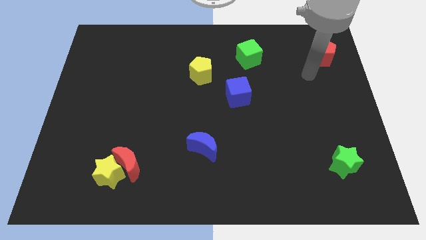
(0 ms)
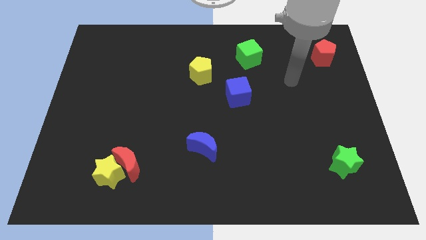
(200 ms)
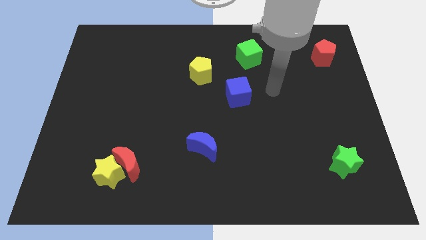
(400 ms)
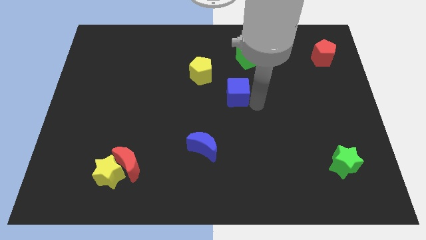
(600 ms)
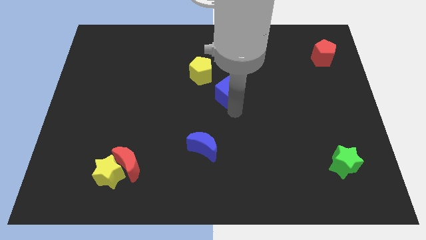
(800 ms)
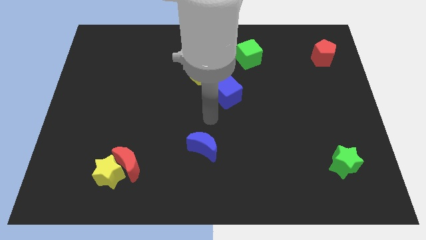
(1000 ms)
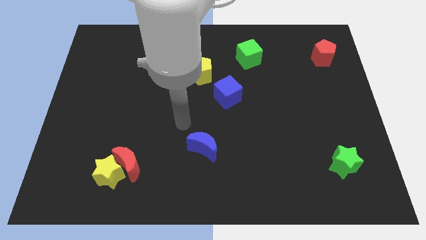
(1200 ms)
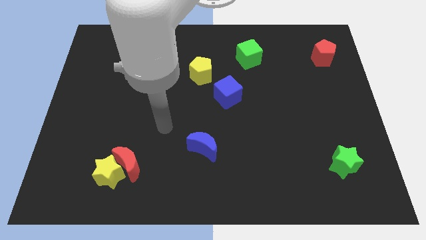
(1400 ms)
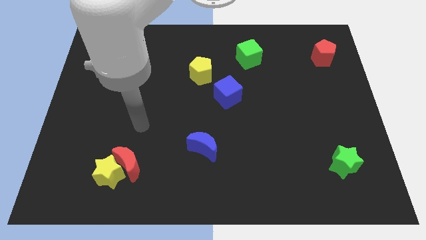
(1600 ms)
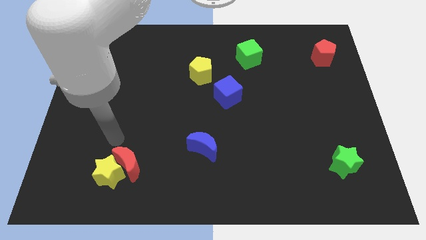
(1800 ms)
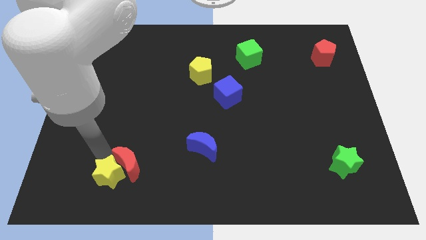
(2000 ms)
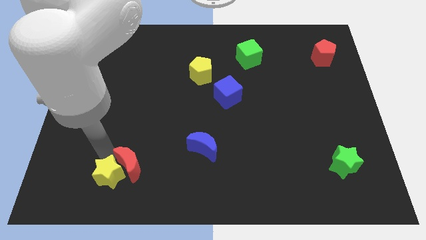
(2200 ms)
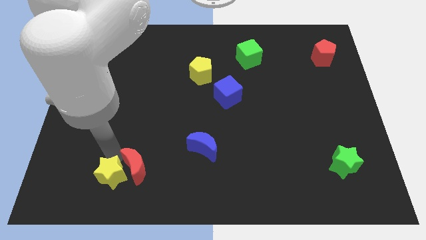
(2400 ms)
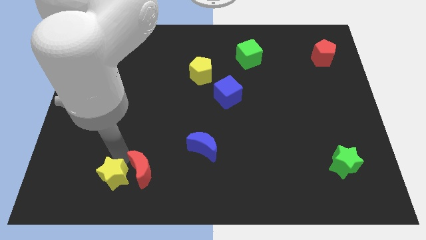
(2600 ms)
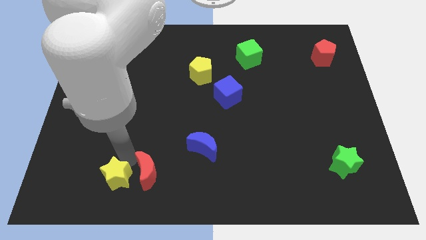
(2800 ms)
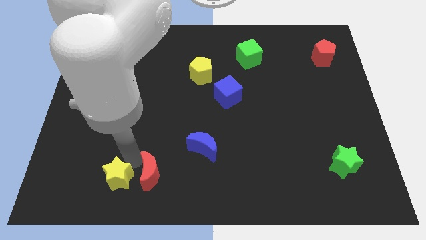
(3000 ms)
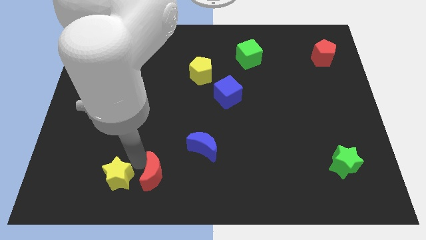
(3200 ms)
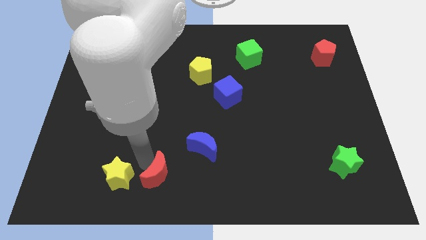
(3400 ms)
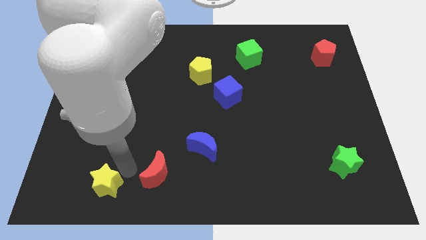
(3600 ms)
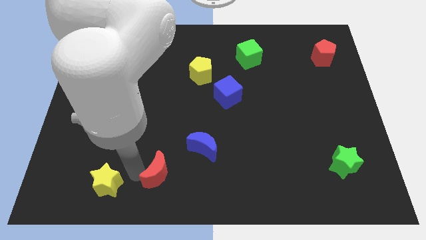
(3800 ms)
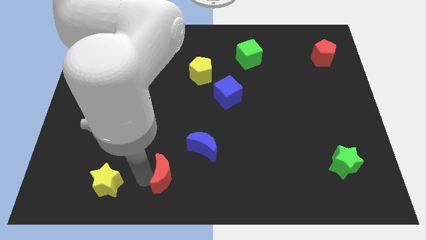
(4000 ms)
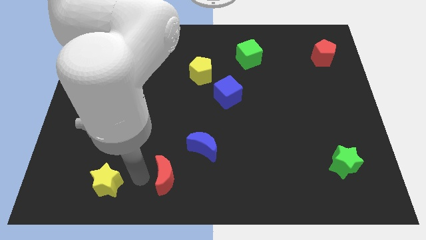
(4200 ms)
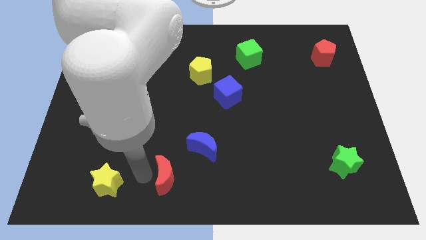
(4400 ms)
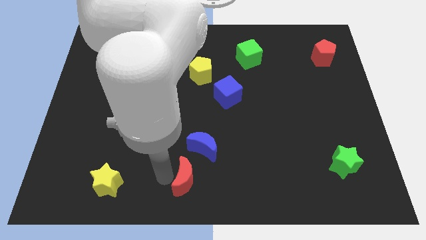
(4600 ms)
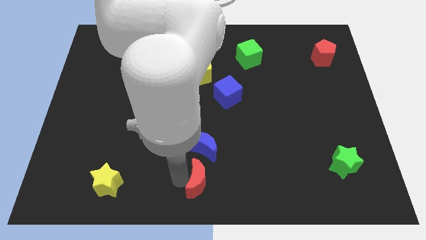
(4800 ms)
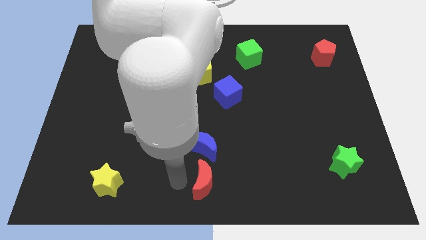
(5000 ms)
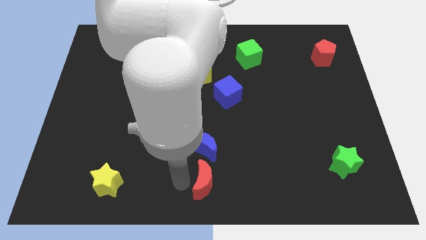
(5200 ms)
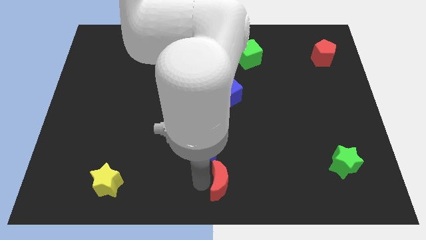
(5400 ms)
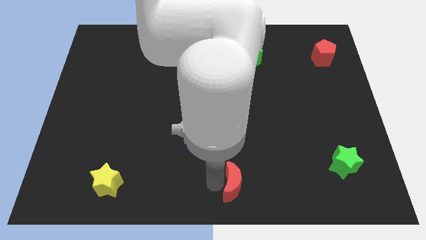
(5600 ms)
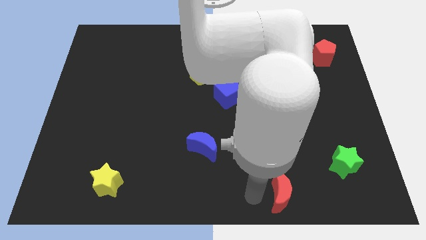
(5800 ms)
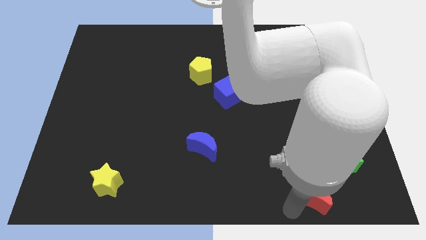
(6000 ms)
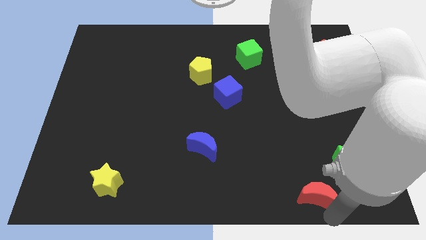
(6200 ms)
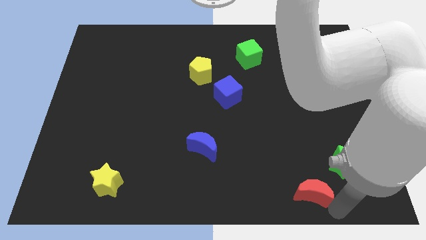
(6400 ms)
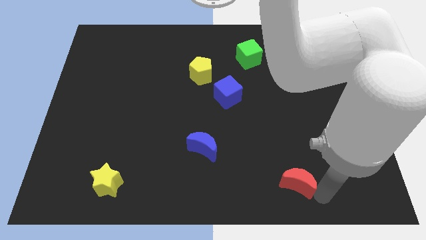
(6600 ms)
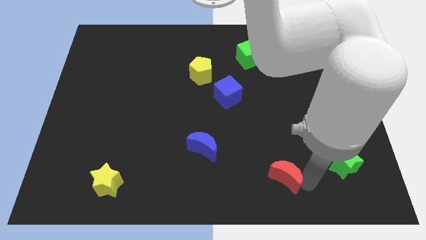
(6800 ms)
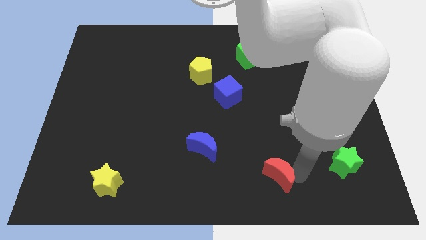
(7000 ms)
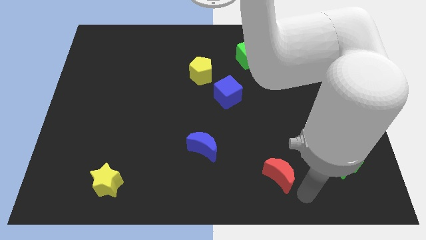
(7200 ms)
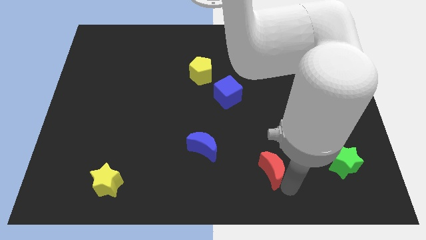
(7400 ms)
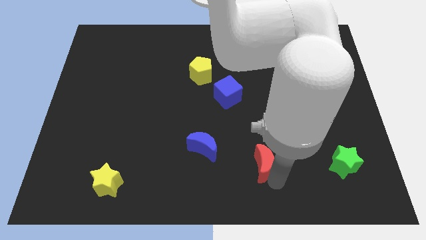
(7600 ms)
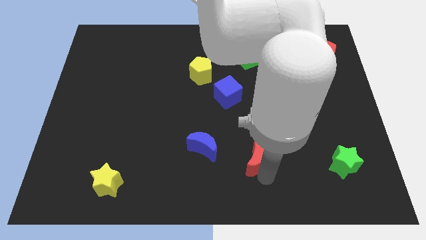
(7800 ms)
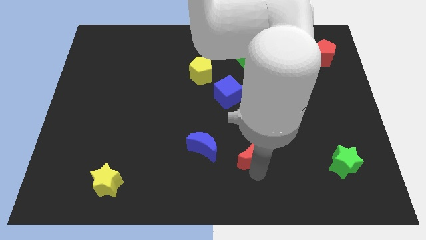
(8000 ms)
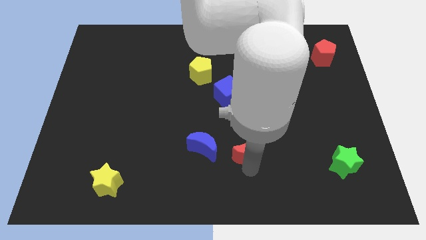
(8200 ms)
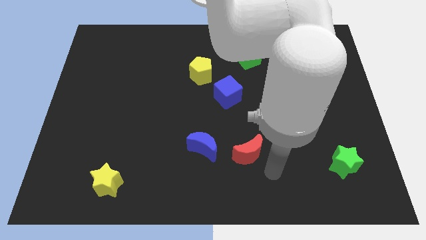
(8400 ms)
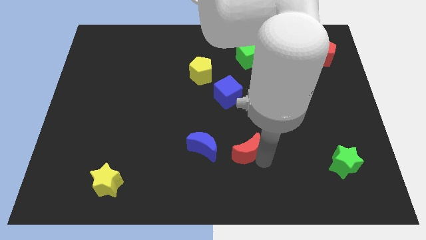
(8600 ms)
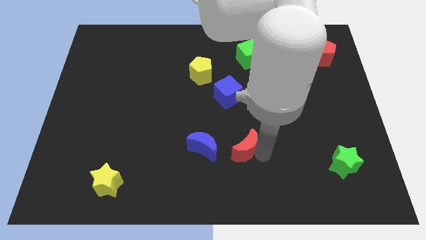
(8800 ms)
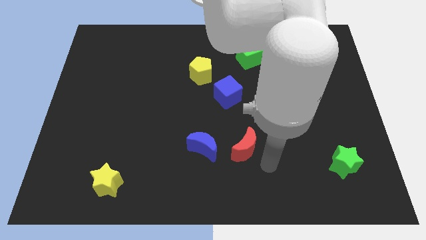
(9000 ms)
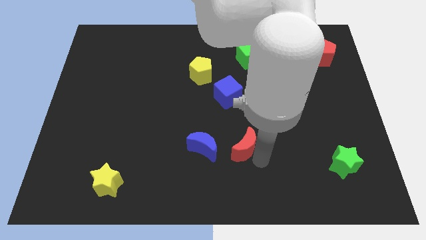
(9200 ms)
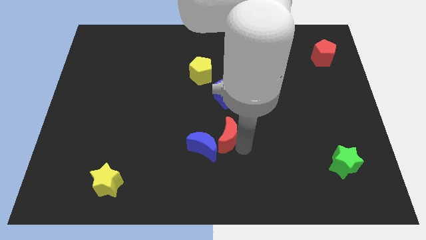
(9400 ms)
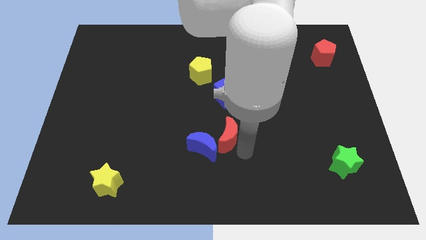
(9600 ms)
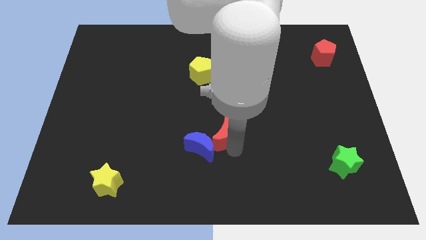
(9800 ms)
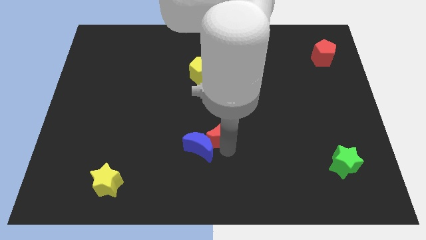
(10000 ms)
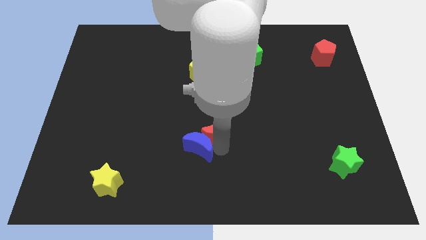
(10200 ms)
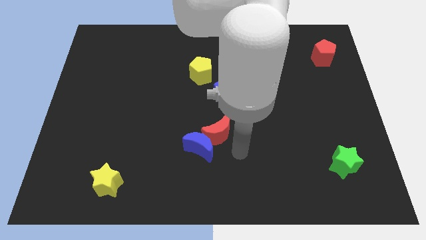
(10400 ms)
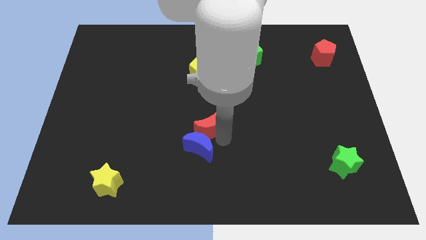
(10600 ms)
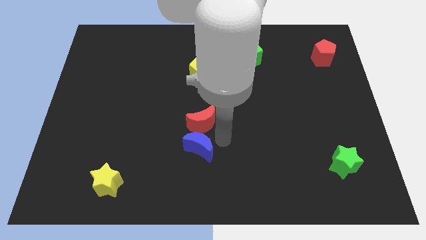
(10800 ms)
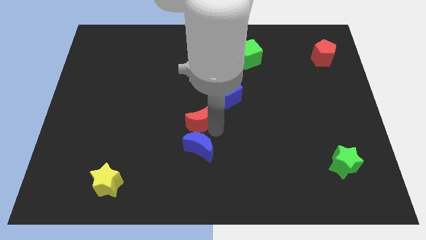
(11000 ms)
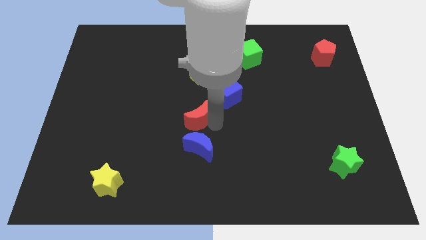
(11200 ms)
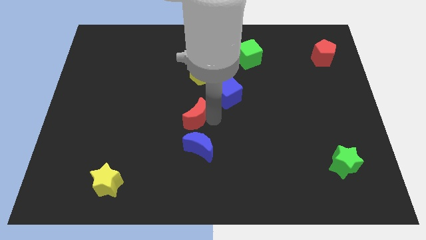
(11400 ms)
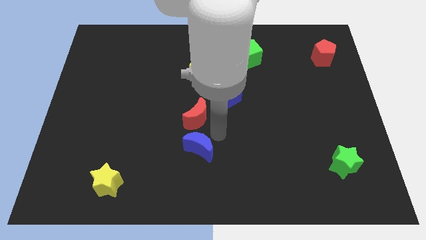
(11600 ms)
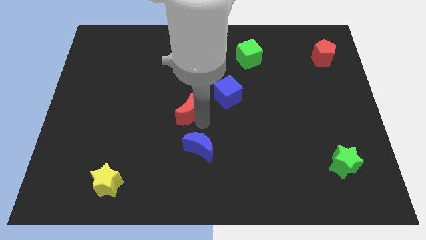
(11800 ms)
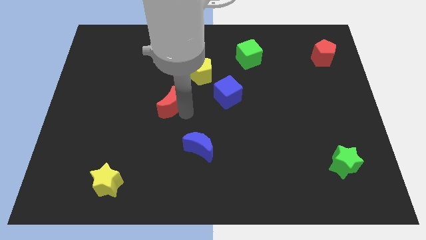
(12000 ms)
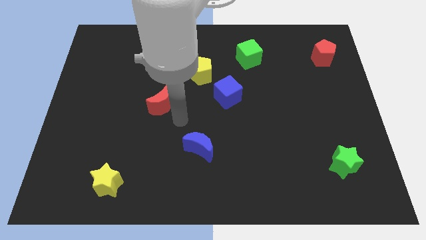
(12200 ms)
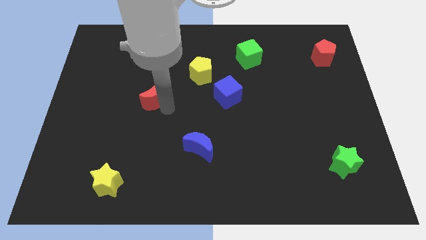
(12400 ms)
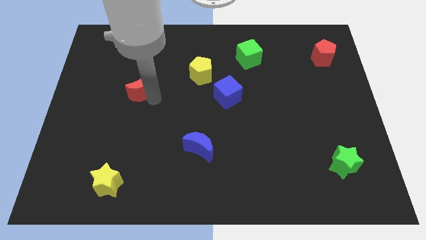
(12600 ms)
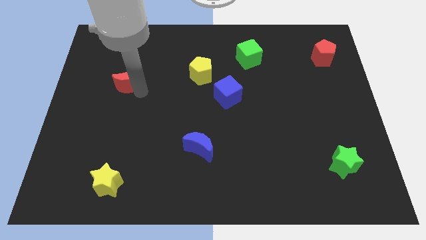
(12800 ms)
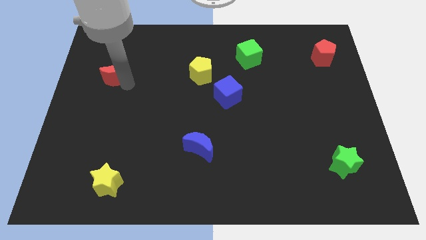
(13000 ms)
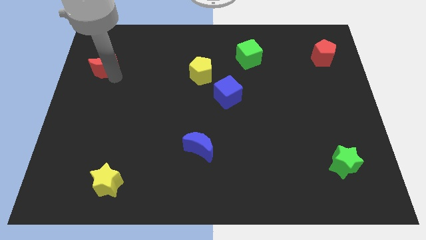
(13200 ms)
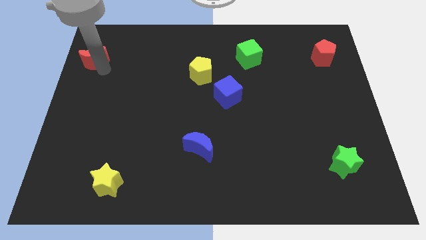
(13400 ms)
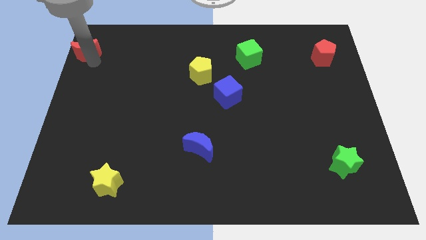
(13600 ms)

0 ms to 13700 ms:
push the red moon to the top left of the board
